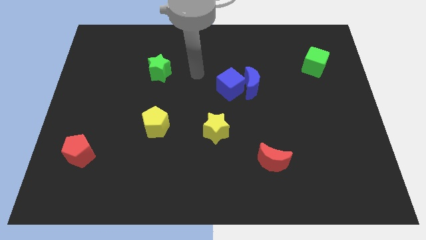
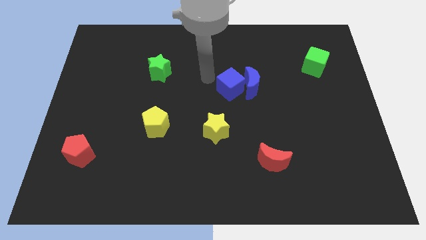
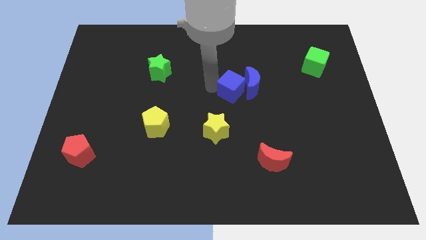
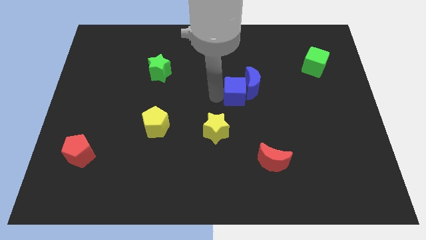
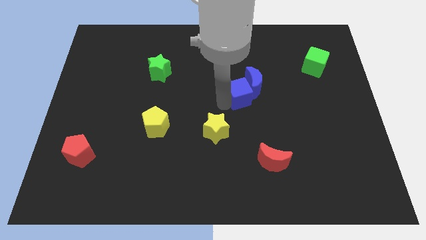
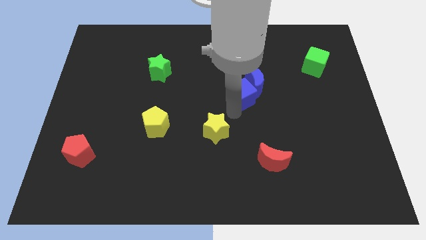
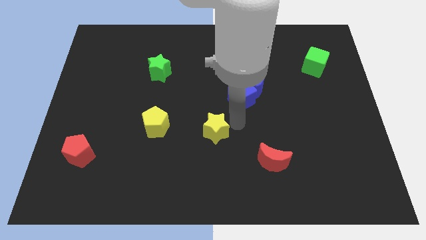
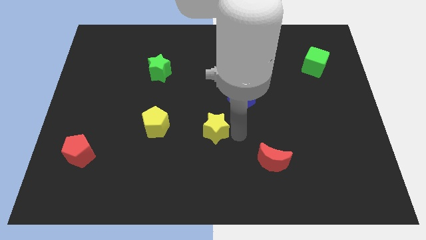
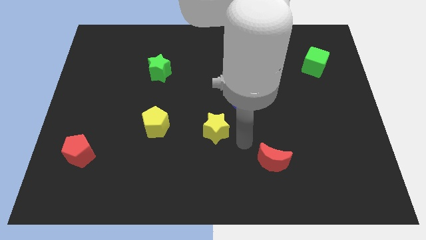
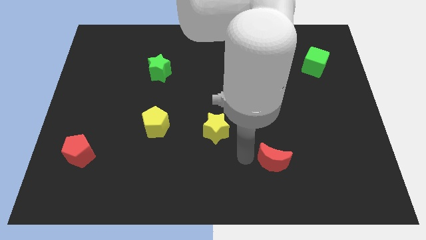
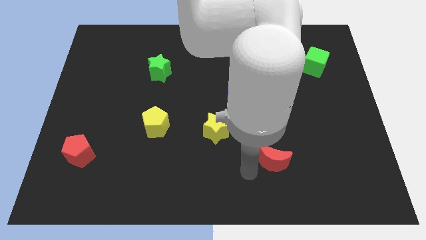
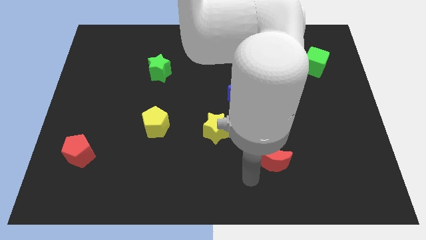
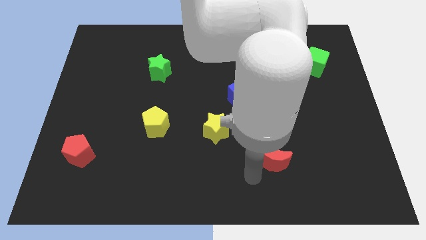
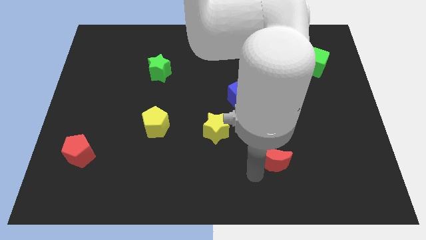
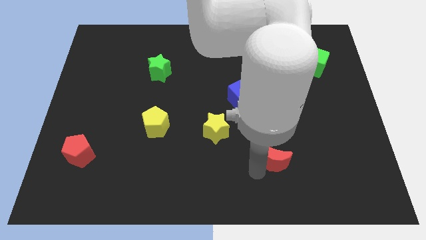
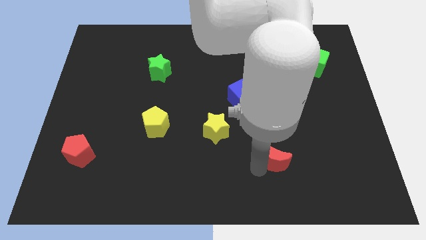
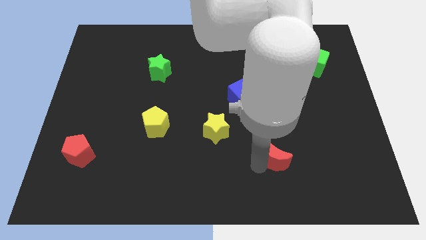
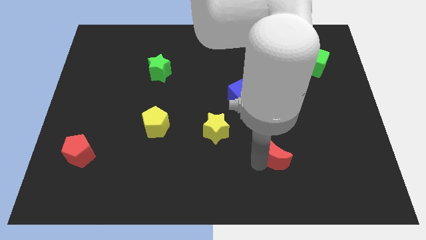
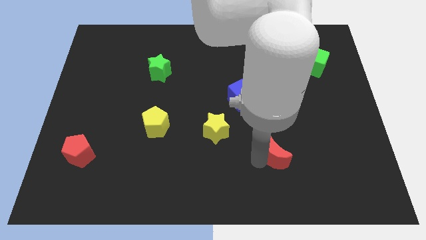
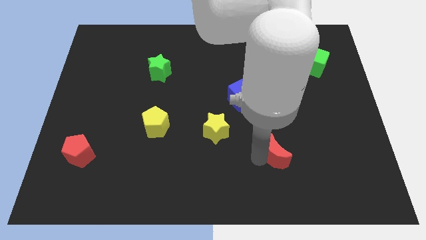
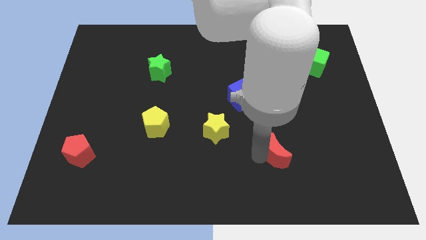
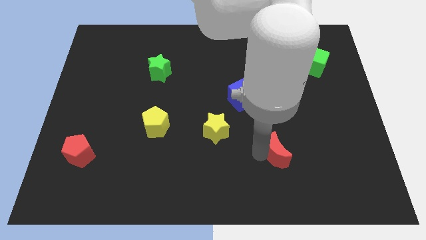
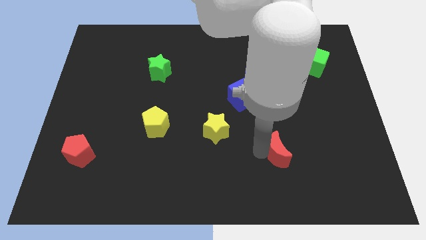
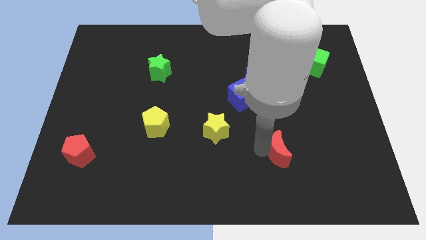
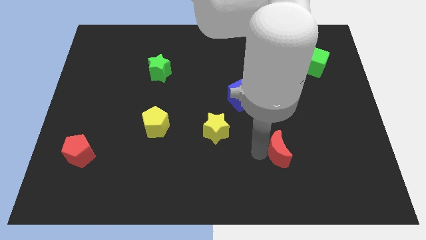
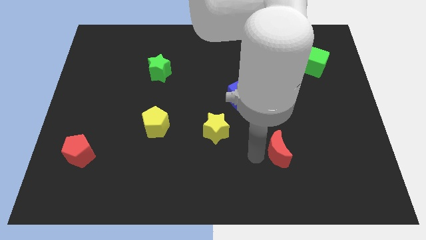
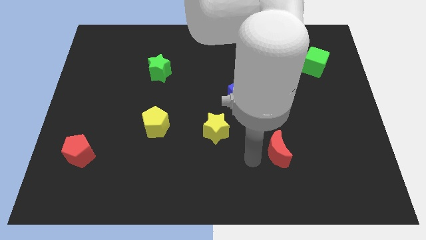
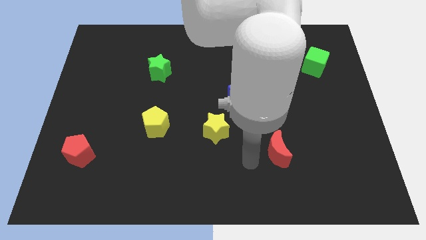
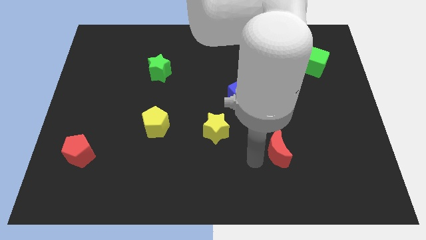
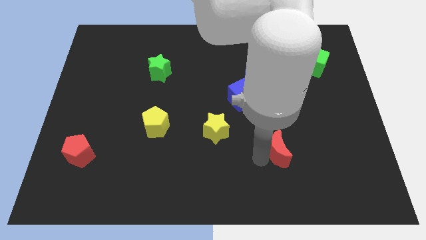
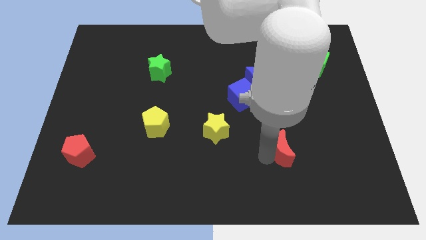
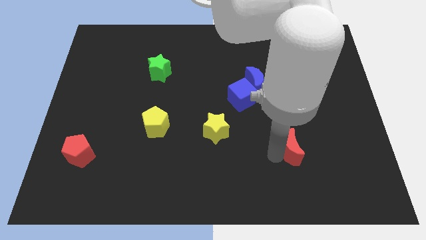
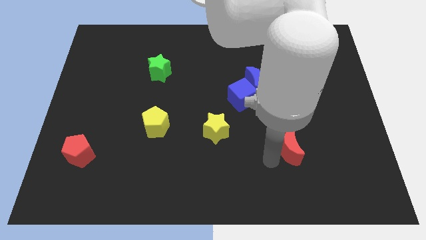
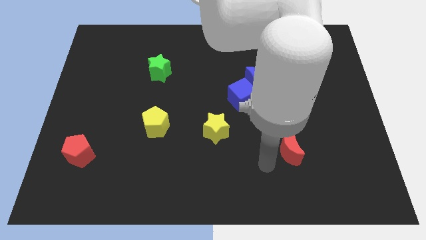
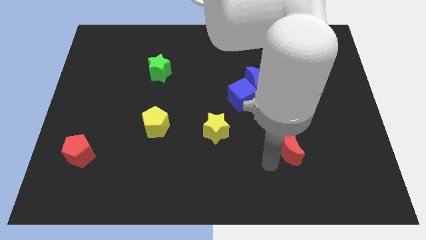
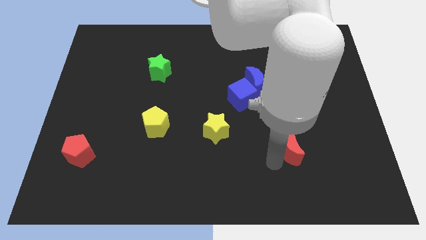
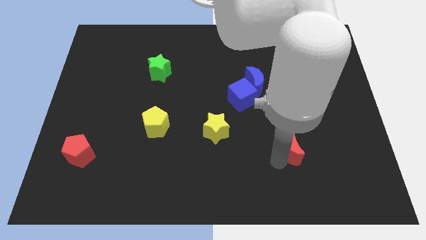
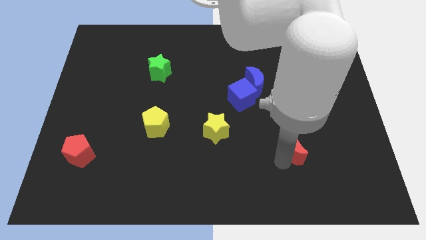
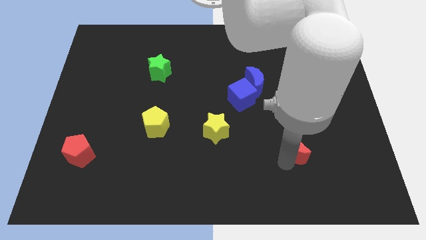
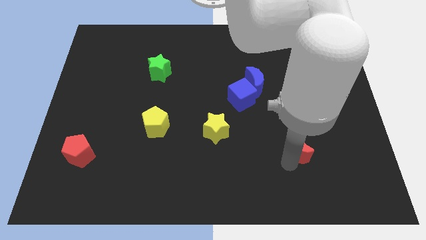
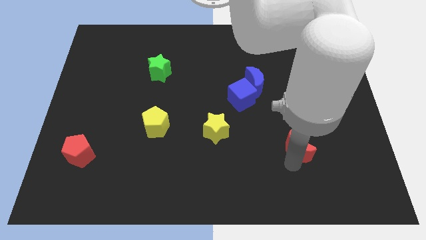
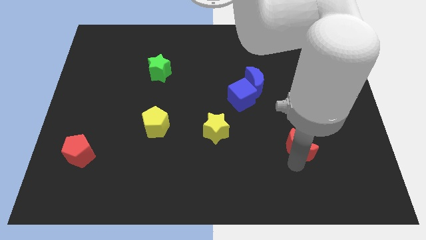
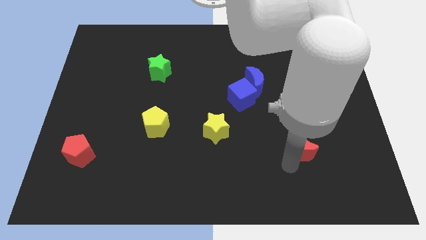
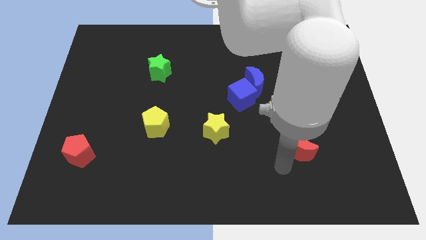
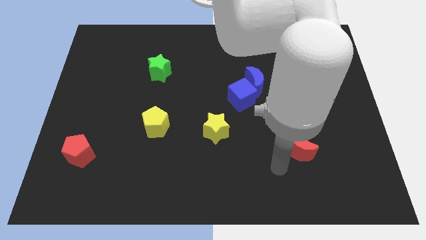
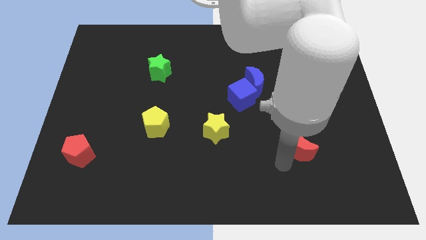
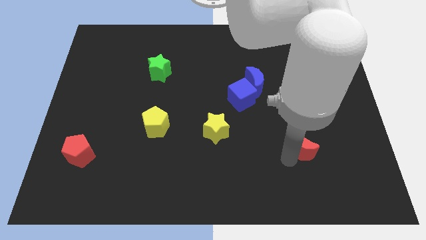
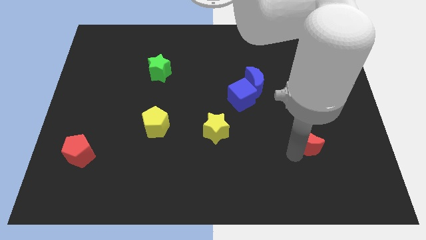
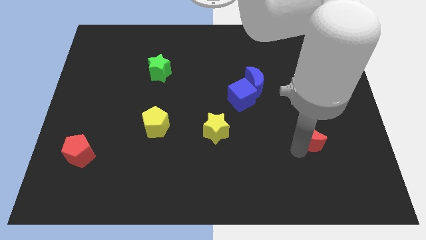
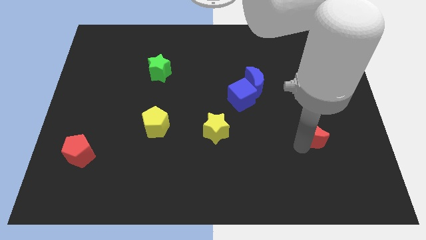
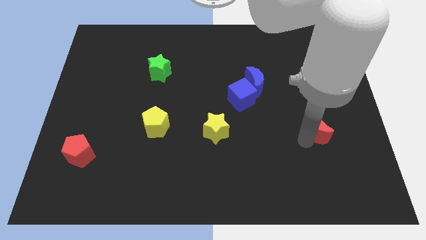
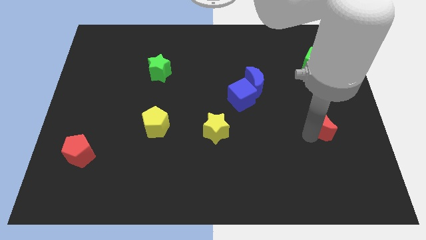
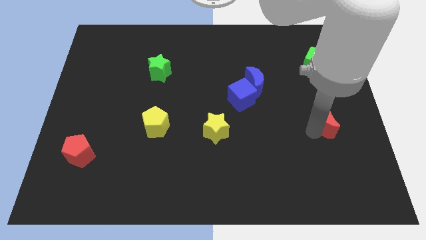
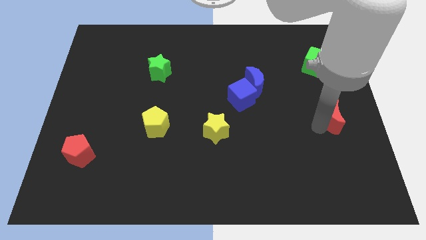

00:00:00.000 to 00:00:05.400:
put the red moon to the center right

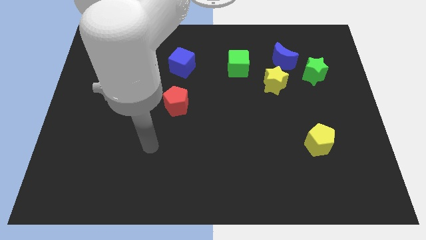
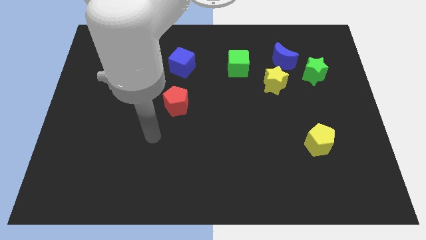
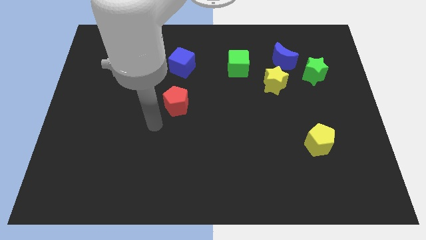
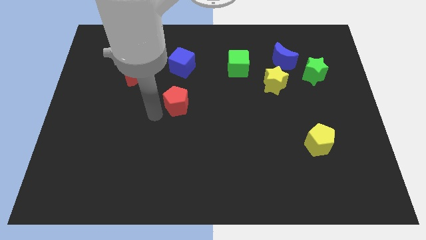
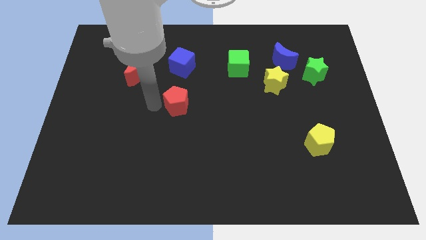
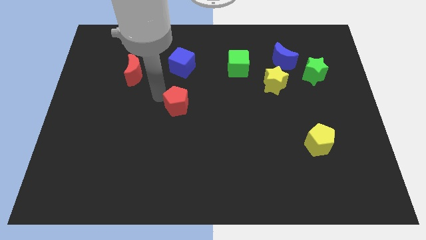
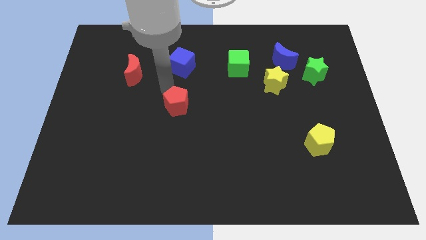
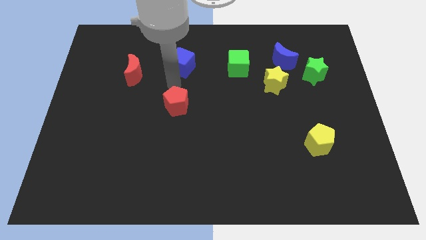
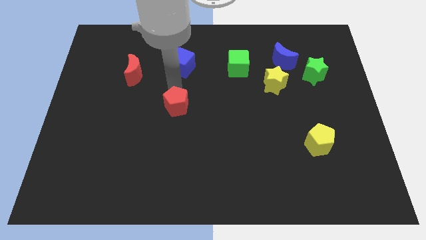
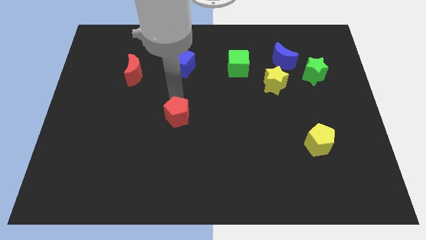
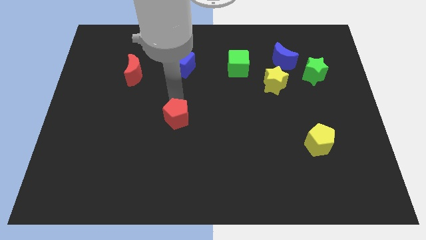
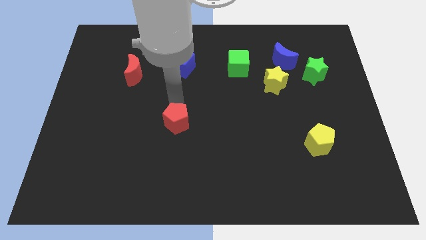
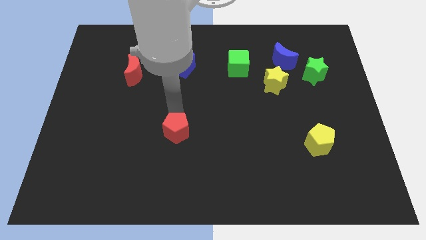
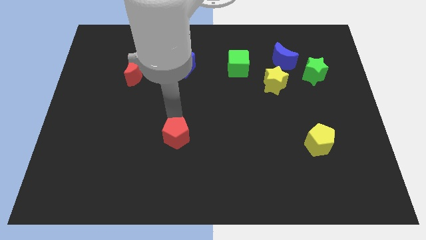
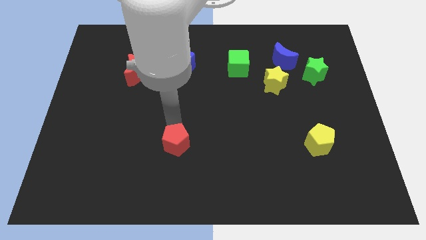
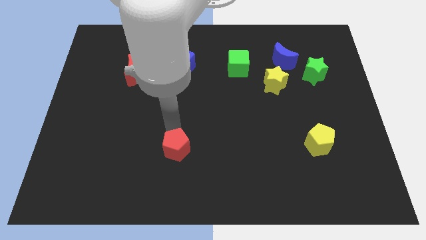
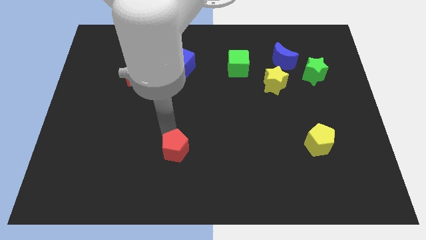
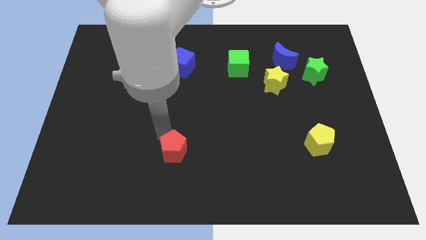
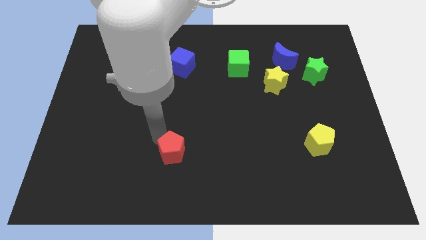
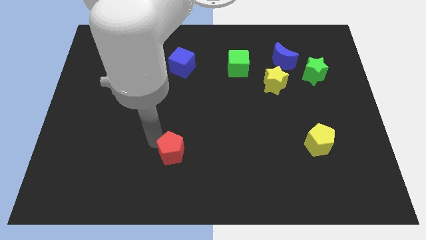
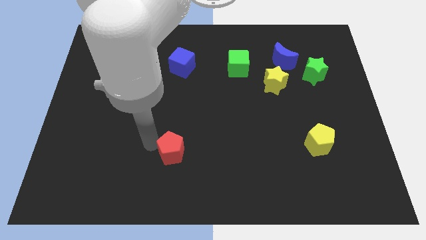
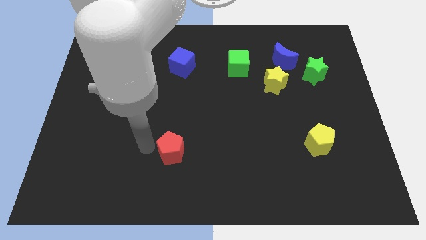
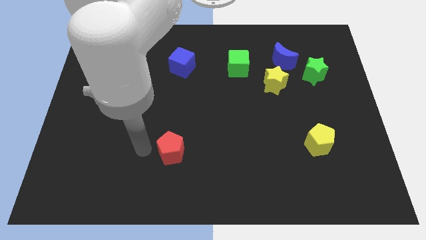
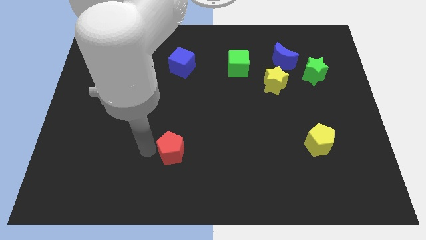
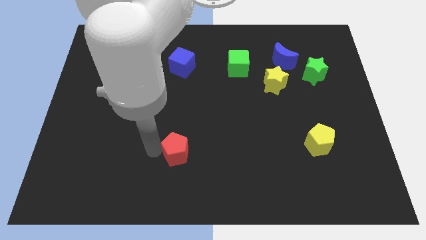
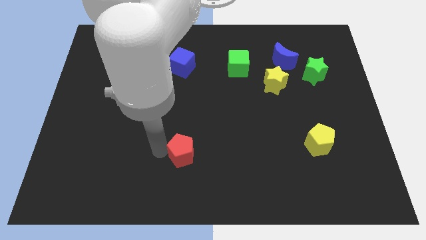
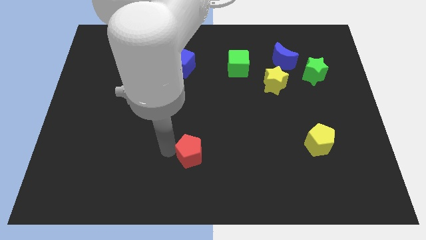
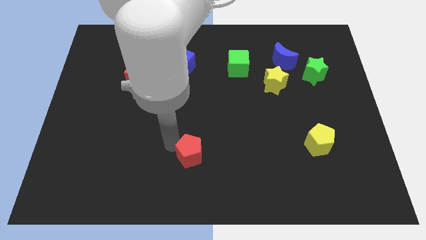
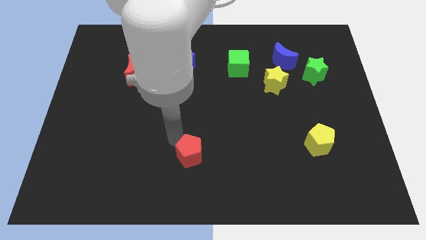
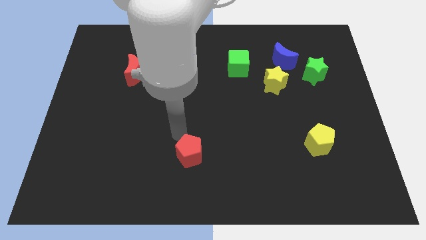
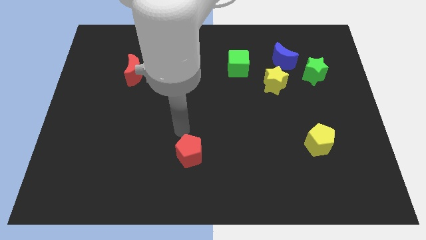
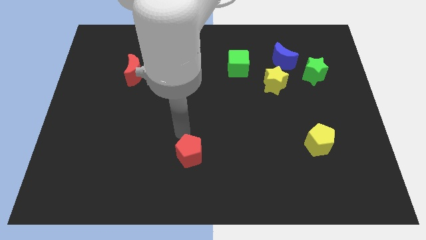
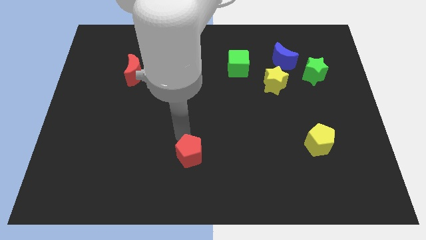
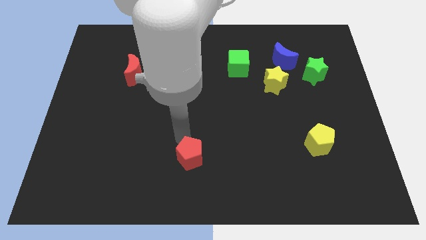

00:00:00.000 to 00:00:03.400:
slide the red pentagon to the bottom side
